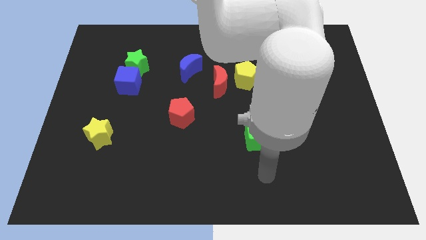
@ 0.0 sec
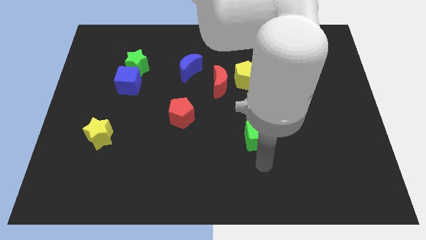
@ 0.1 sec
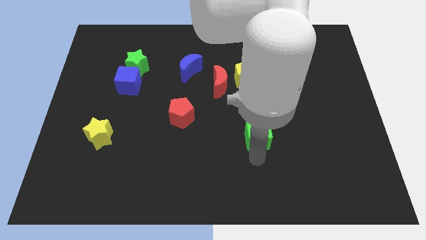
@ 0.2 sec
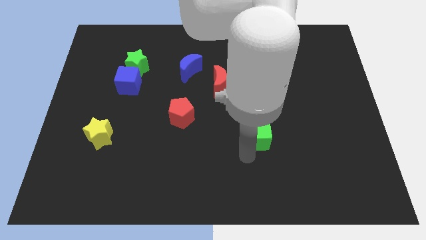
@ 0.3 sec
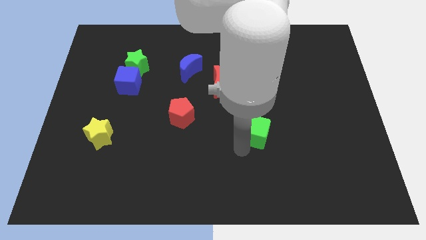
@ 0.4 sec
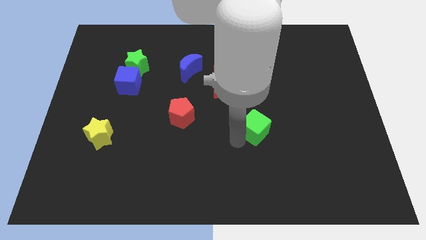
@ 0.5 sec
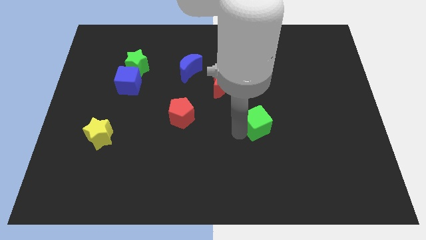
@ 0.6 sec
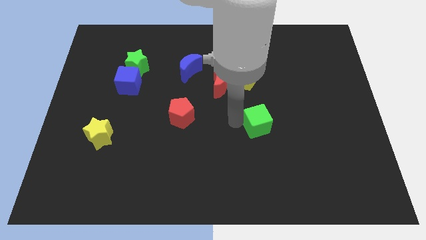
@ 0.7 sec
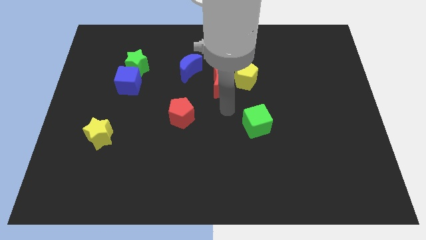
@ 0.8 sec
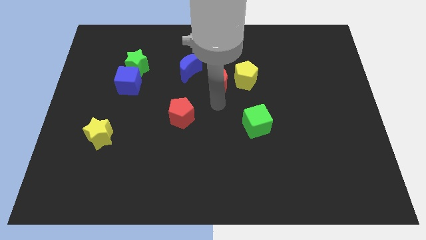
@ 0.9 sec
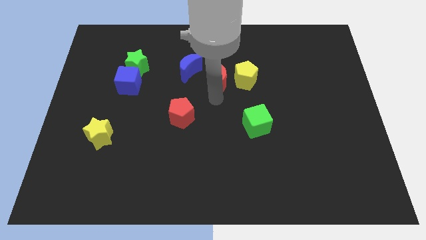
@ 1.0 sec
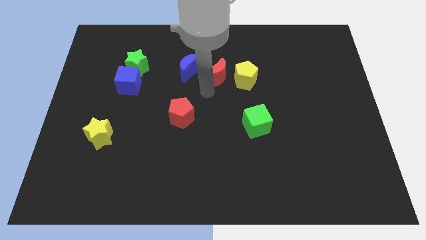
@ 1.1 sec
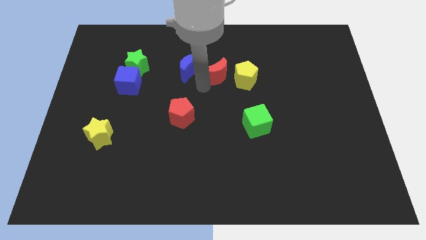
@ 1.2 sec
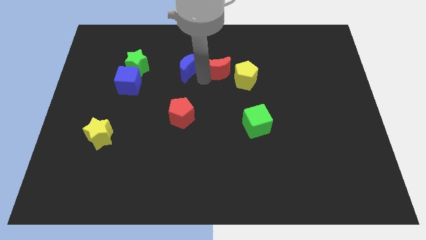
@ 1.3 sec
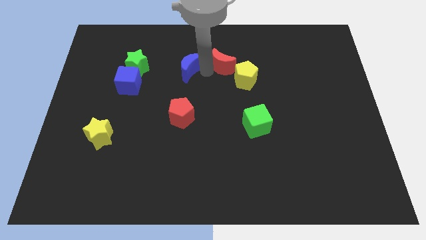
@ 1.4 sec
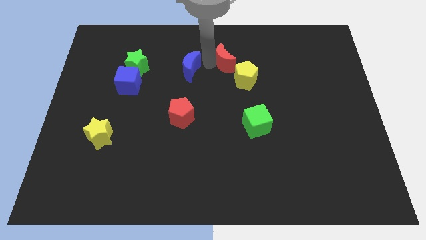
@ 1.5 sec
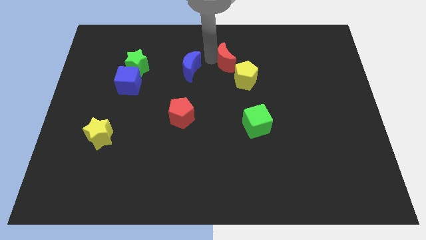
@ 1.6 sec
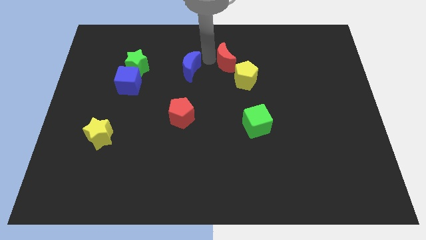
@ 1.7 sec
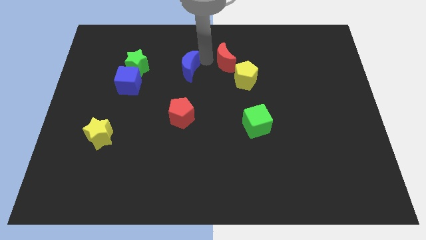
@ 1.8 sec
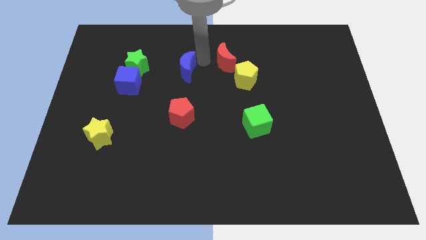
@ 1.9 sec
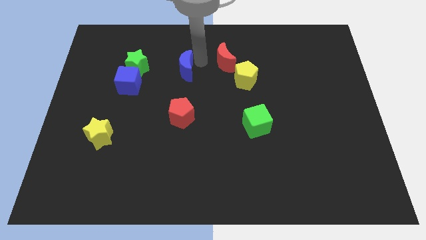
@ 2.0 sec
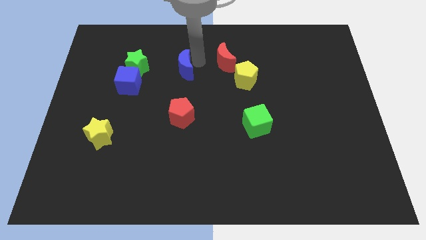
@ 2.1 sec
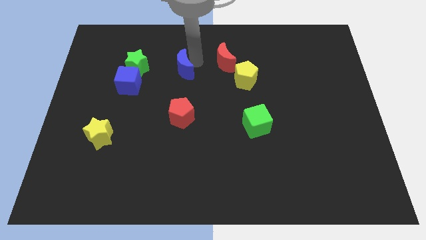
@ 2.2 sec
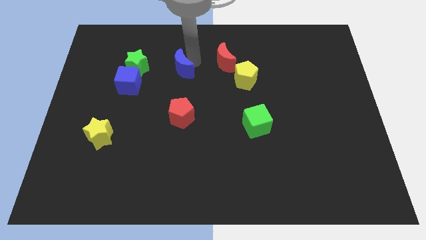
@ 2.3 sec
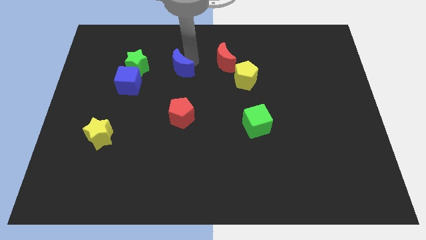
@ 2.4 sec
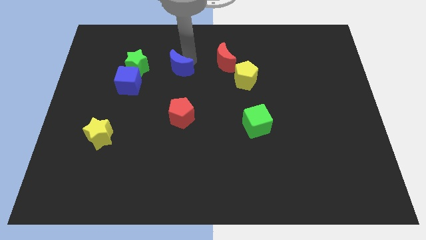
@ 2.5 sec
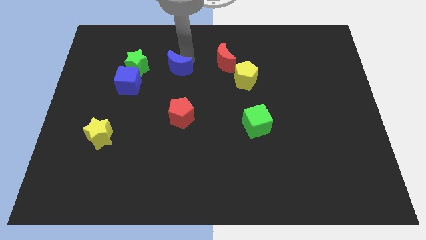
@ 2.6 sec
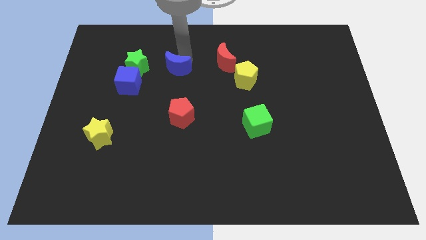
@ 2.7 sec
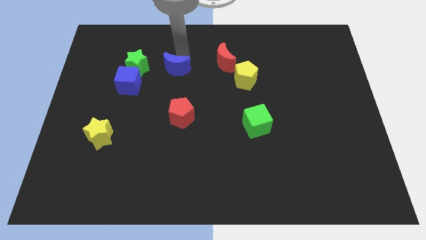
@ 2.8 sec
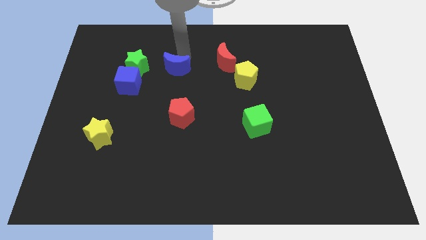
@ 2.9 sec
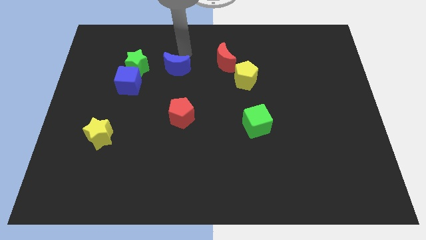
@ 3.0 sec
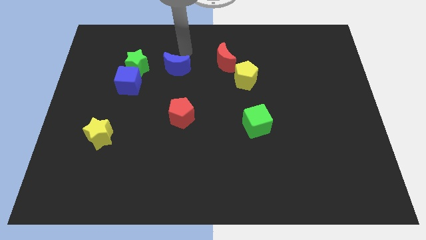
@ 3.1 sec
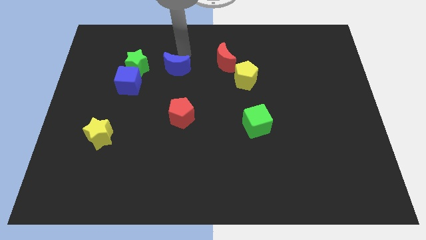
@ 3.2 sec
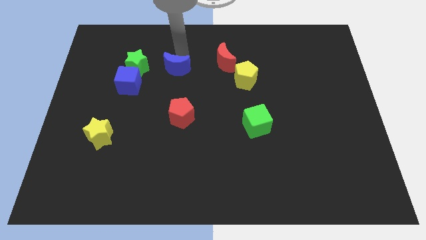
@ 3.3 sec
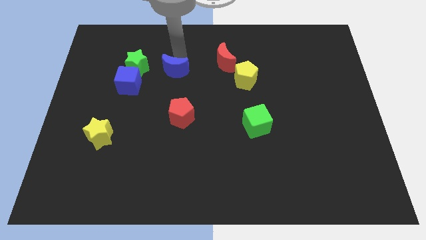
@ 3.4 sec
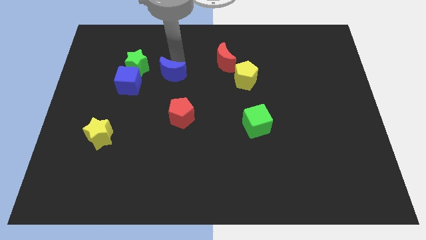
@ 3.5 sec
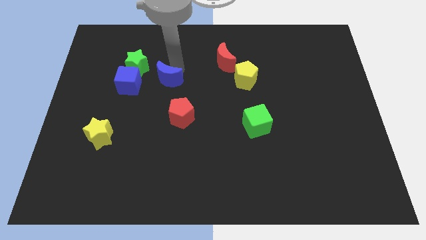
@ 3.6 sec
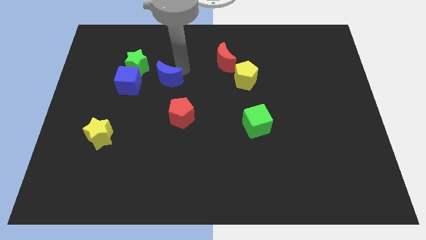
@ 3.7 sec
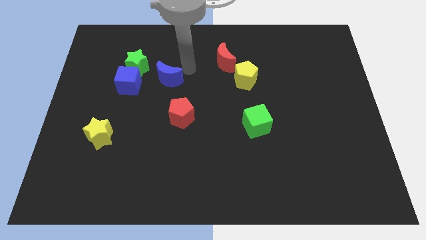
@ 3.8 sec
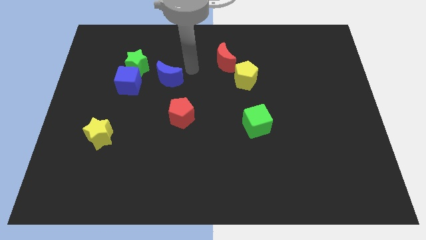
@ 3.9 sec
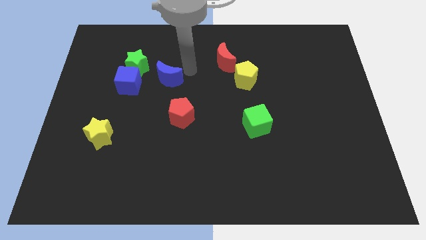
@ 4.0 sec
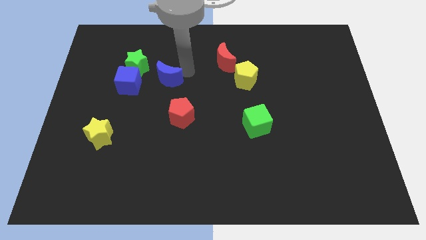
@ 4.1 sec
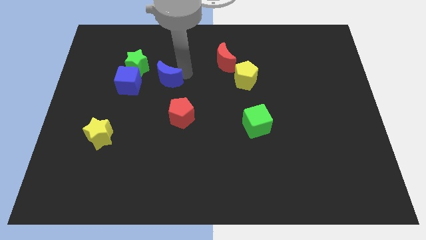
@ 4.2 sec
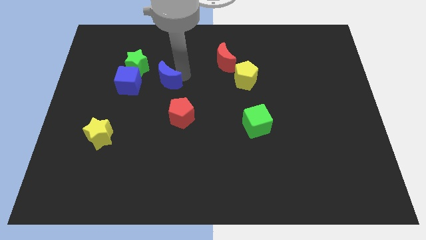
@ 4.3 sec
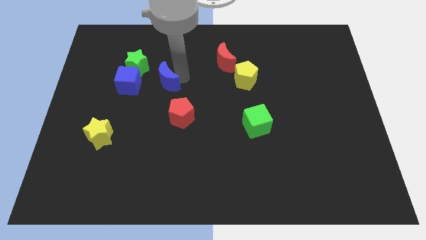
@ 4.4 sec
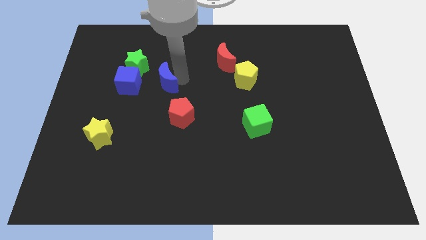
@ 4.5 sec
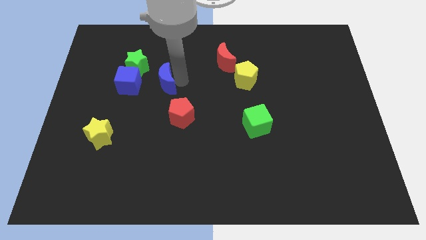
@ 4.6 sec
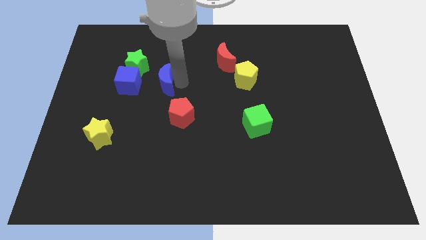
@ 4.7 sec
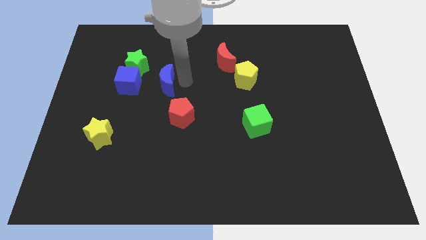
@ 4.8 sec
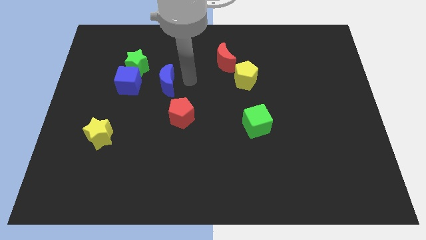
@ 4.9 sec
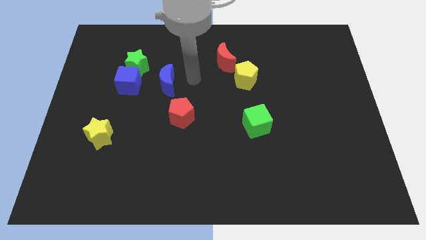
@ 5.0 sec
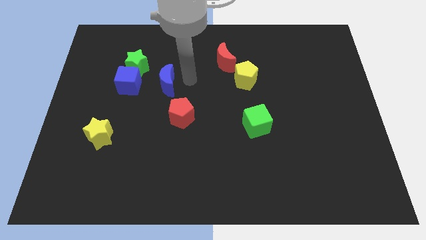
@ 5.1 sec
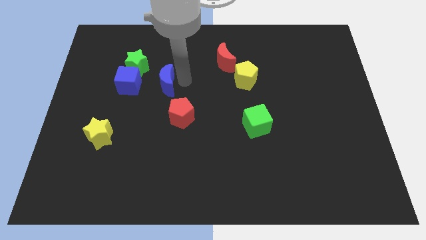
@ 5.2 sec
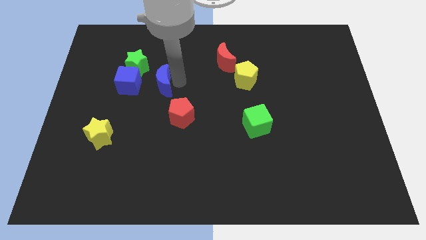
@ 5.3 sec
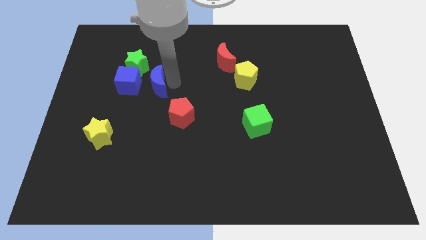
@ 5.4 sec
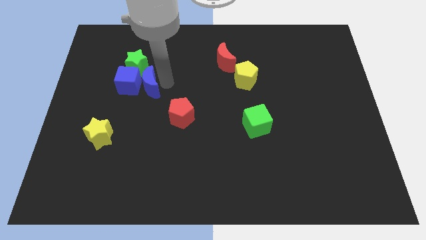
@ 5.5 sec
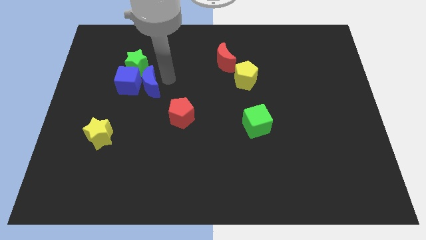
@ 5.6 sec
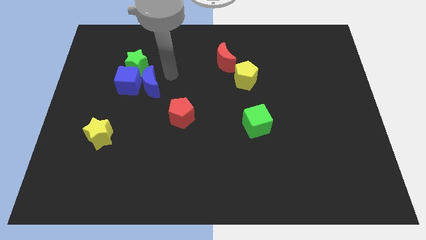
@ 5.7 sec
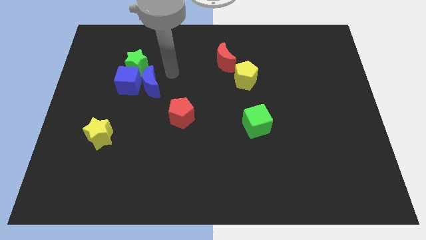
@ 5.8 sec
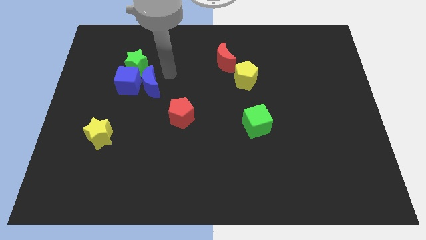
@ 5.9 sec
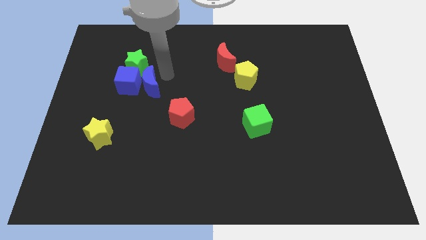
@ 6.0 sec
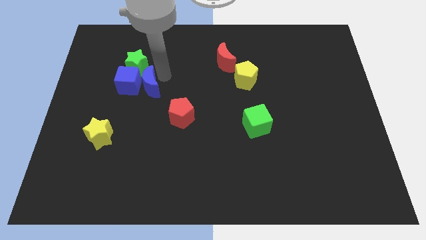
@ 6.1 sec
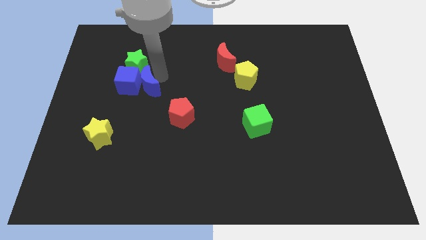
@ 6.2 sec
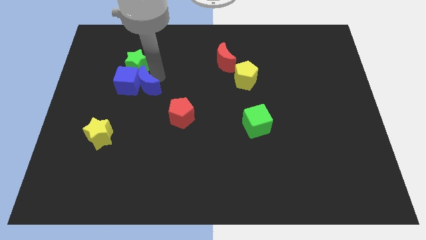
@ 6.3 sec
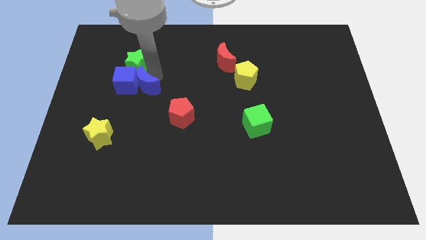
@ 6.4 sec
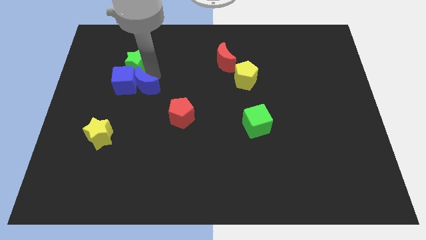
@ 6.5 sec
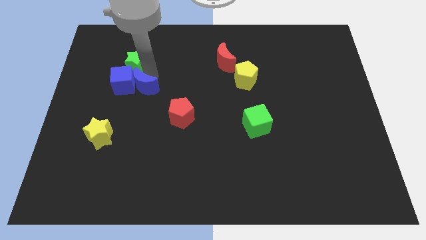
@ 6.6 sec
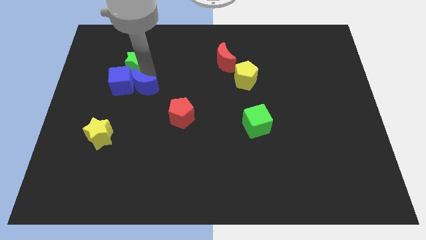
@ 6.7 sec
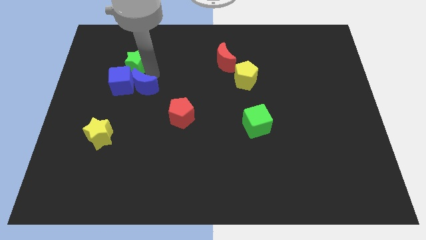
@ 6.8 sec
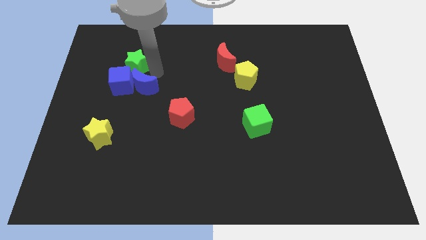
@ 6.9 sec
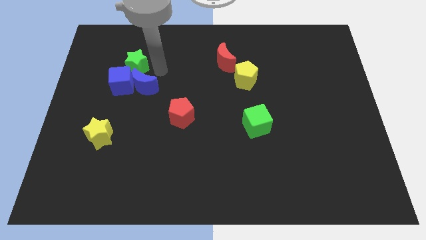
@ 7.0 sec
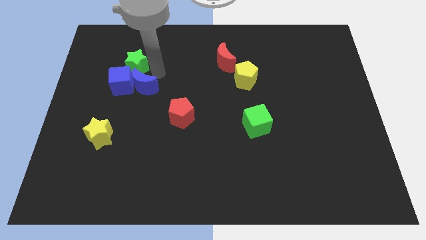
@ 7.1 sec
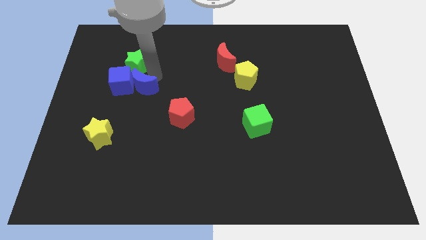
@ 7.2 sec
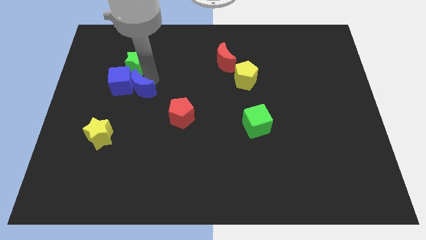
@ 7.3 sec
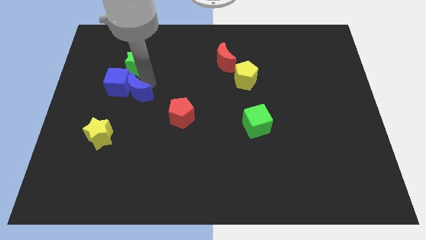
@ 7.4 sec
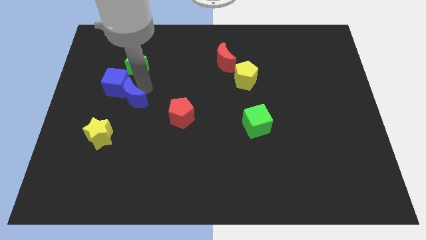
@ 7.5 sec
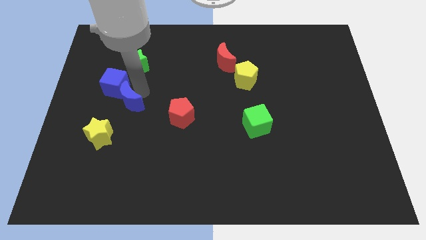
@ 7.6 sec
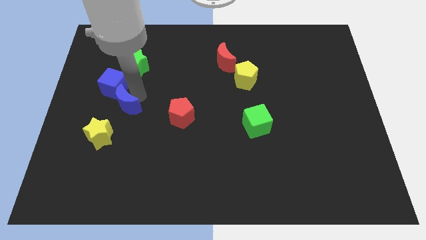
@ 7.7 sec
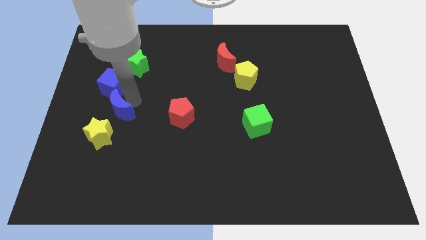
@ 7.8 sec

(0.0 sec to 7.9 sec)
slide the blue moon diagonally downwards and left
